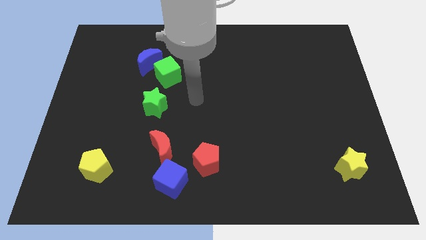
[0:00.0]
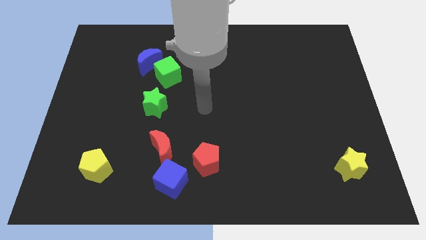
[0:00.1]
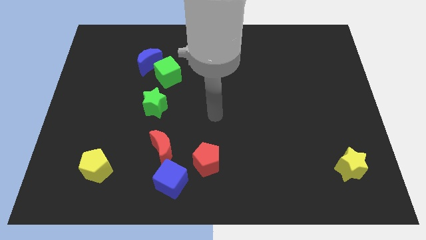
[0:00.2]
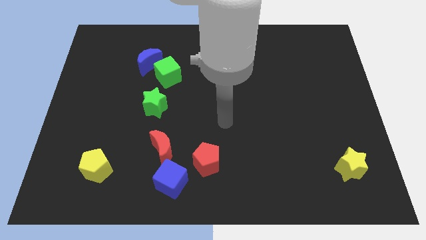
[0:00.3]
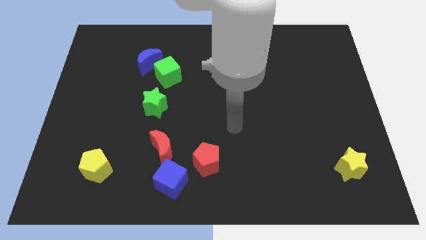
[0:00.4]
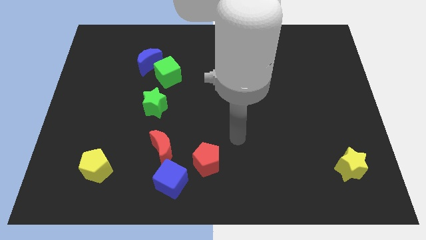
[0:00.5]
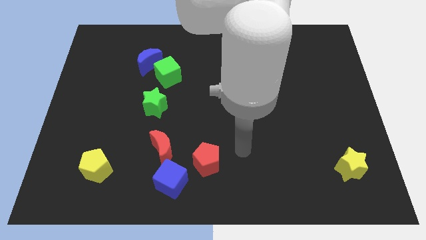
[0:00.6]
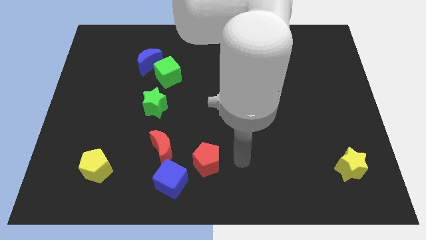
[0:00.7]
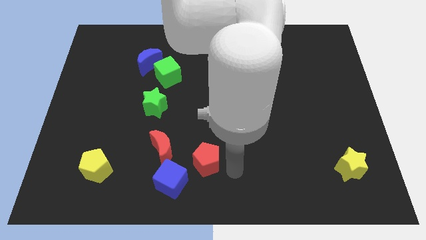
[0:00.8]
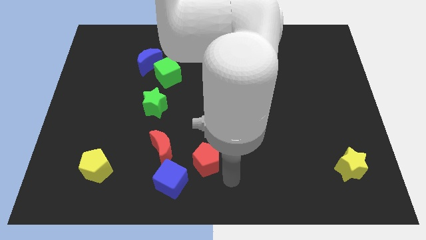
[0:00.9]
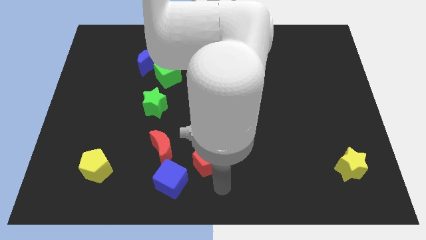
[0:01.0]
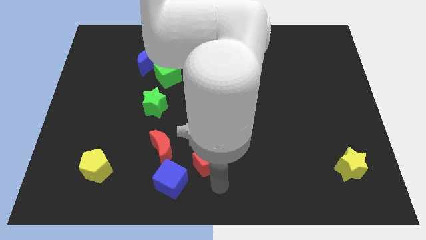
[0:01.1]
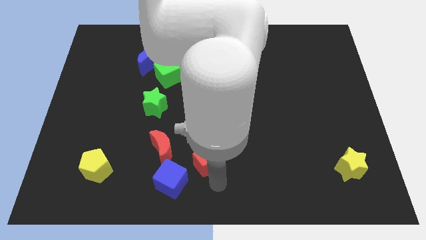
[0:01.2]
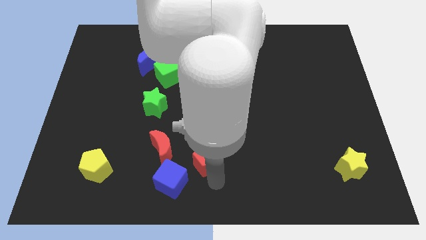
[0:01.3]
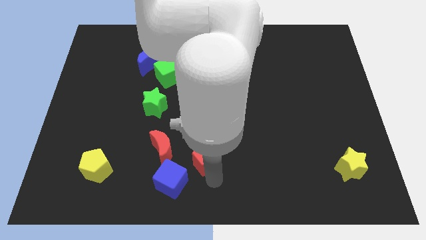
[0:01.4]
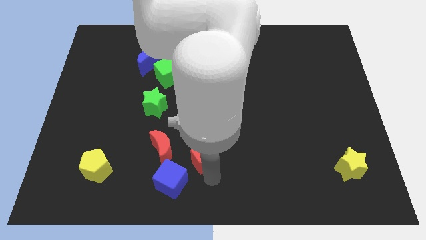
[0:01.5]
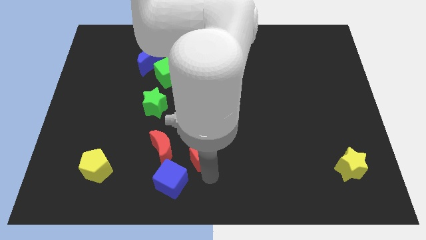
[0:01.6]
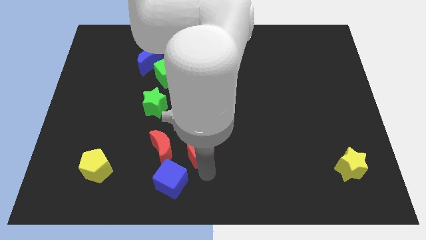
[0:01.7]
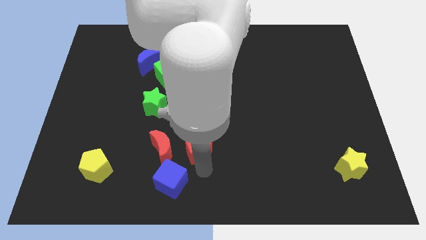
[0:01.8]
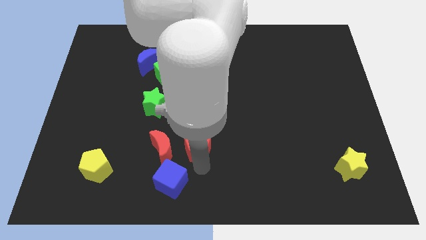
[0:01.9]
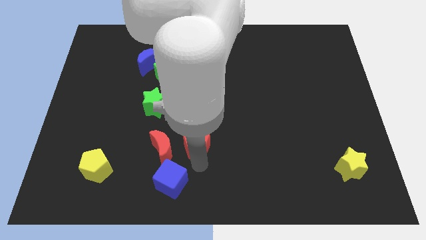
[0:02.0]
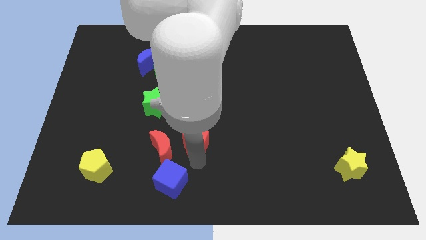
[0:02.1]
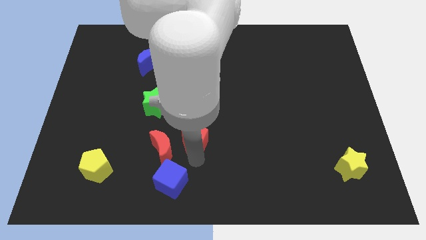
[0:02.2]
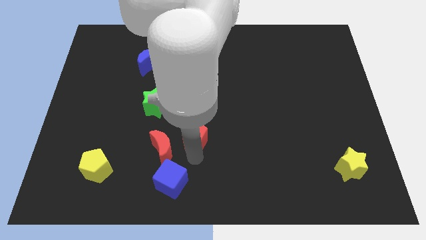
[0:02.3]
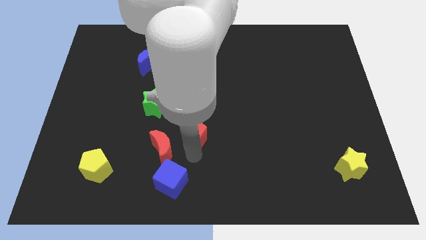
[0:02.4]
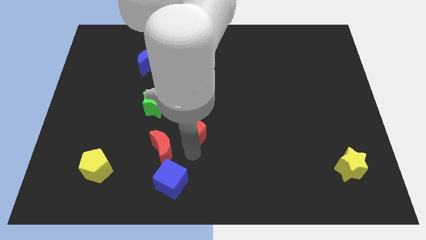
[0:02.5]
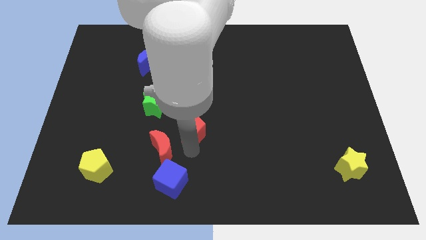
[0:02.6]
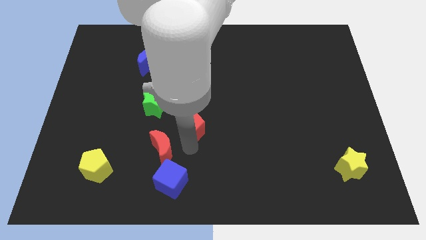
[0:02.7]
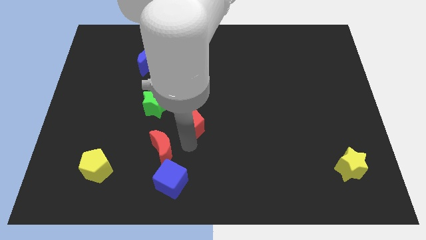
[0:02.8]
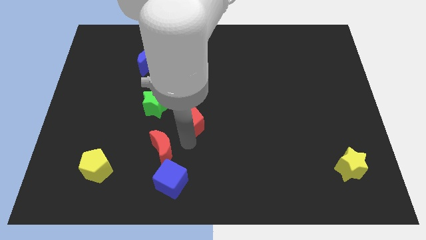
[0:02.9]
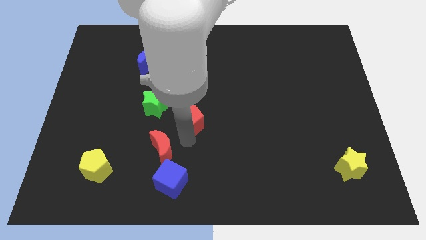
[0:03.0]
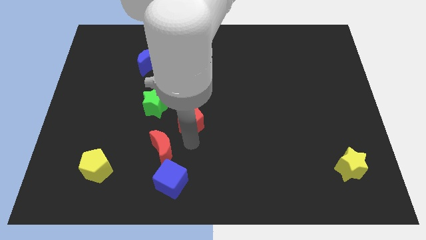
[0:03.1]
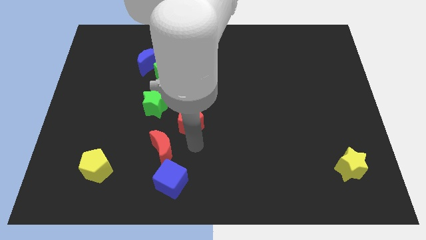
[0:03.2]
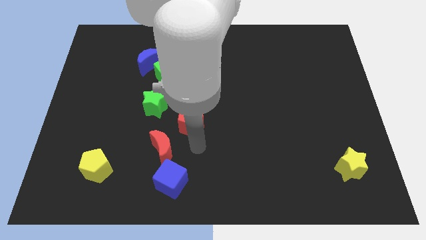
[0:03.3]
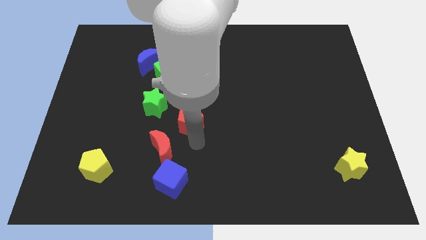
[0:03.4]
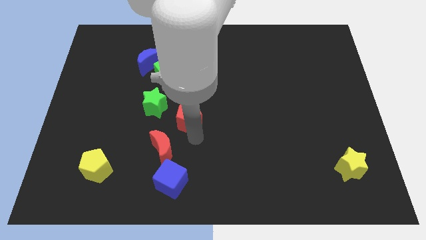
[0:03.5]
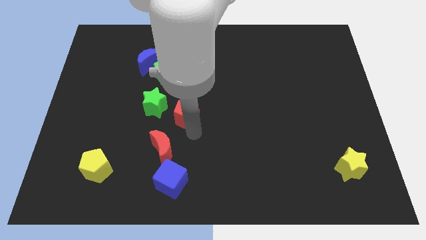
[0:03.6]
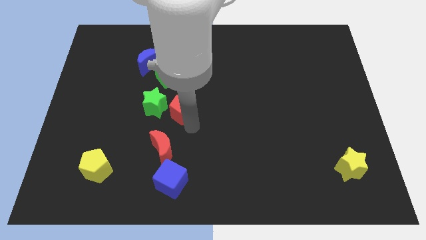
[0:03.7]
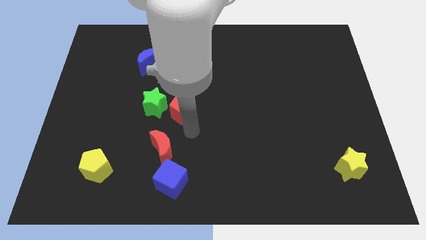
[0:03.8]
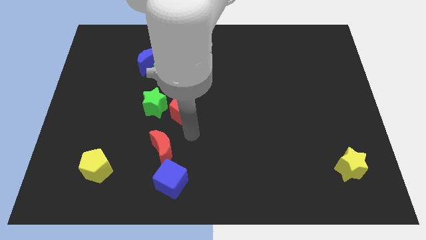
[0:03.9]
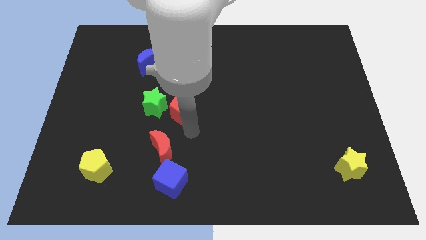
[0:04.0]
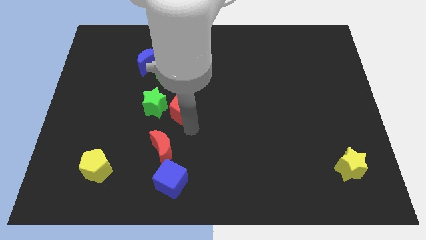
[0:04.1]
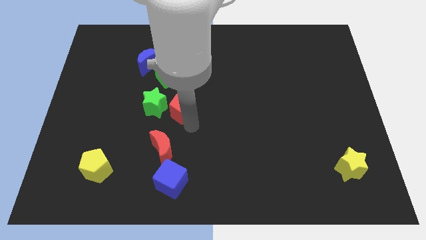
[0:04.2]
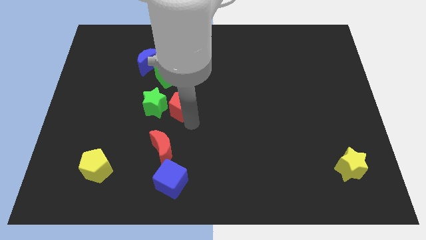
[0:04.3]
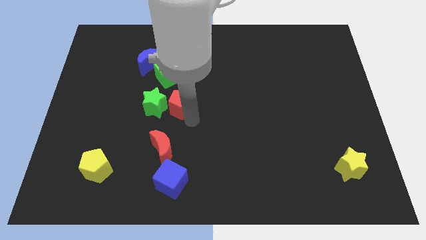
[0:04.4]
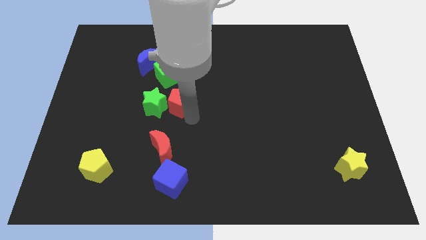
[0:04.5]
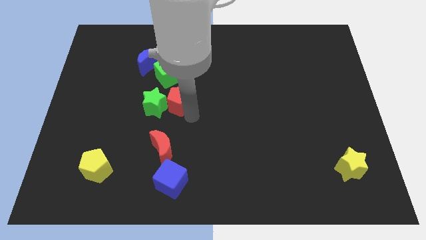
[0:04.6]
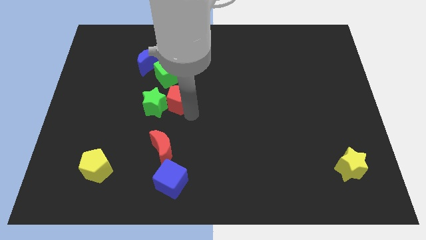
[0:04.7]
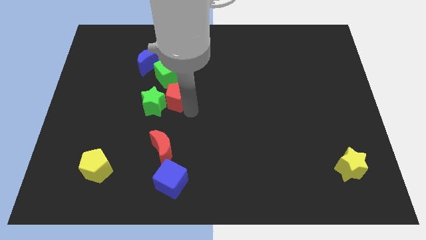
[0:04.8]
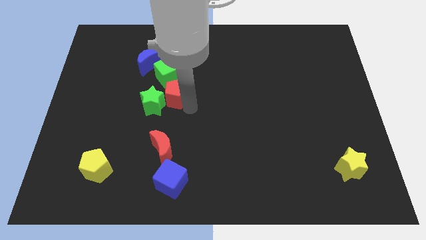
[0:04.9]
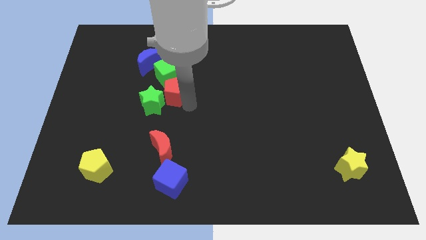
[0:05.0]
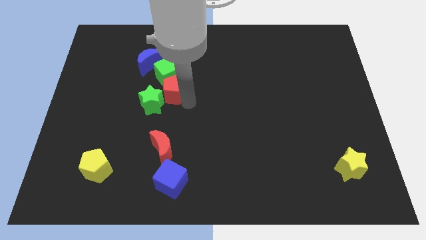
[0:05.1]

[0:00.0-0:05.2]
slide the red pentagon to the green cube

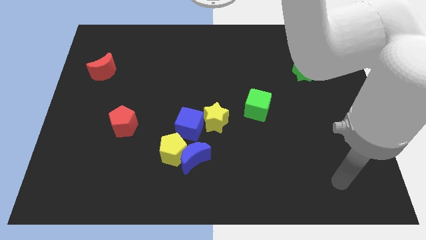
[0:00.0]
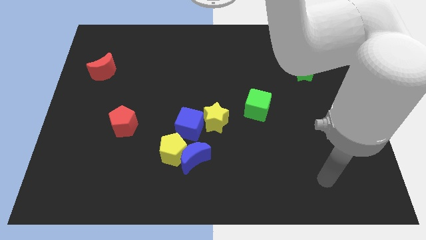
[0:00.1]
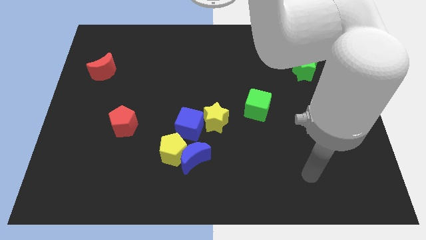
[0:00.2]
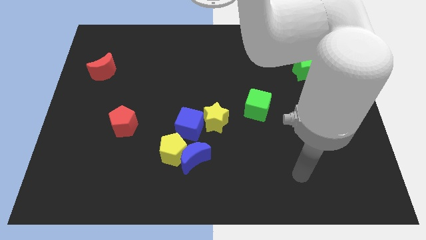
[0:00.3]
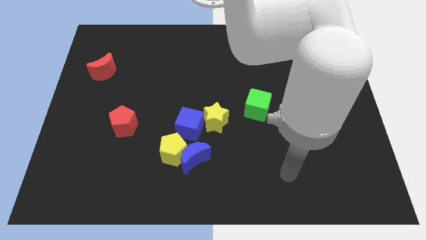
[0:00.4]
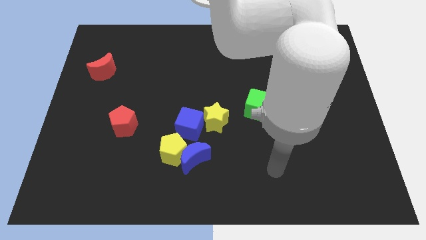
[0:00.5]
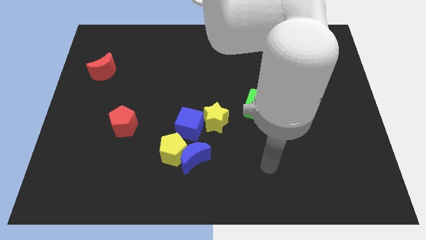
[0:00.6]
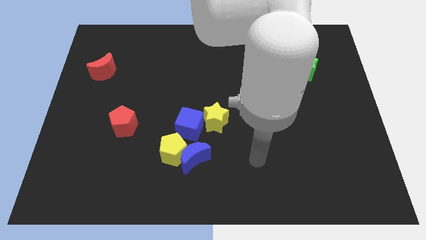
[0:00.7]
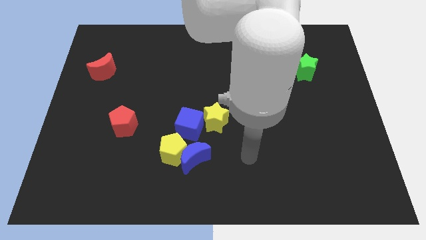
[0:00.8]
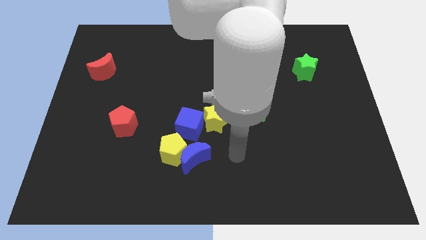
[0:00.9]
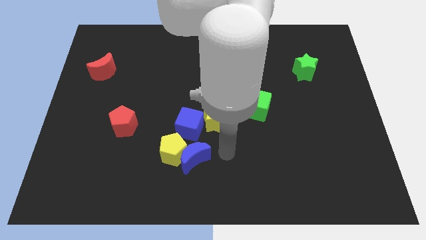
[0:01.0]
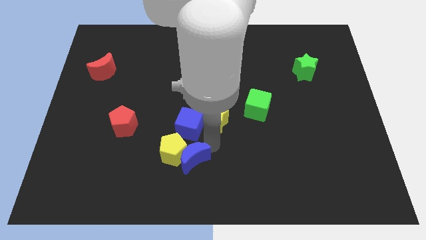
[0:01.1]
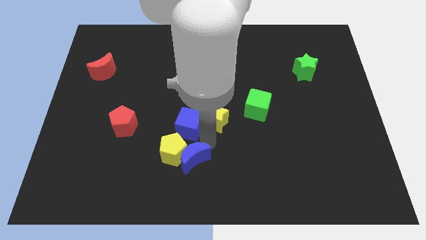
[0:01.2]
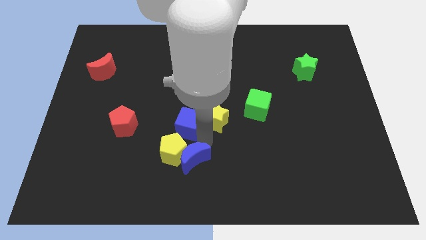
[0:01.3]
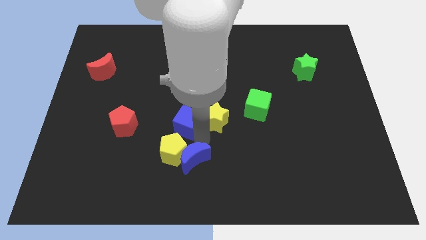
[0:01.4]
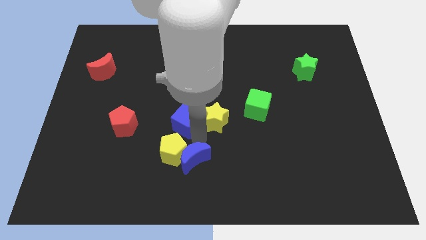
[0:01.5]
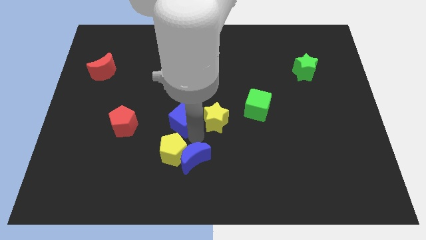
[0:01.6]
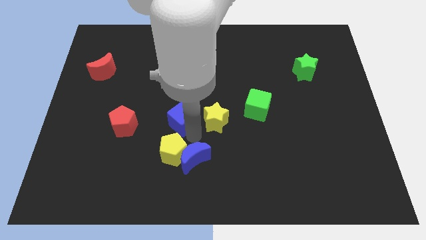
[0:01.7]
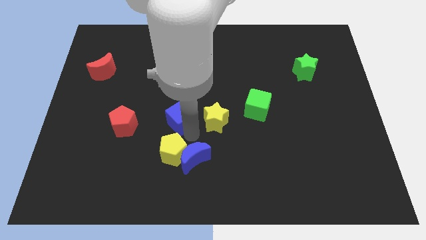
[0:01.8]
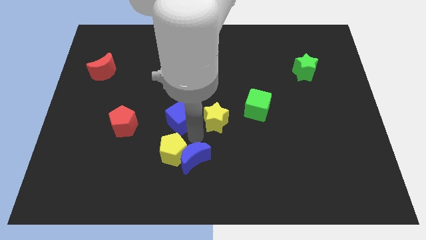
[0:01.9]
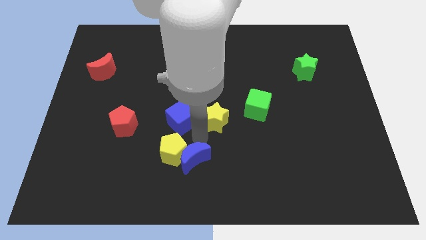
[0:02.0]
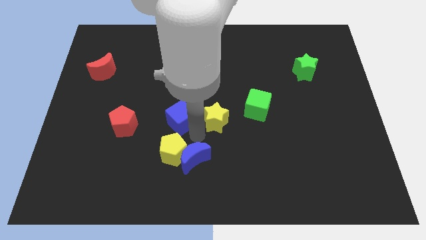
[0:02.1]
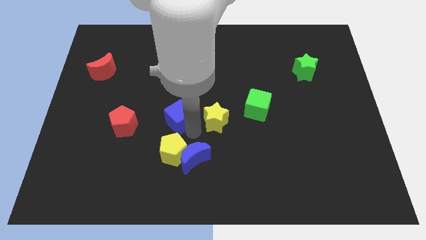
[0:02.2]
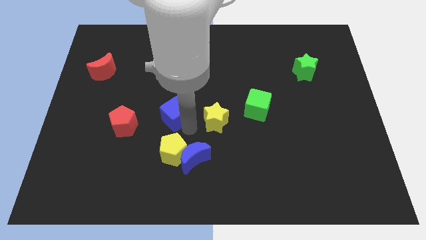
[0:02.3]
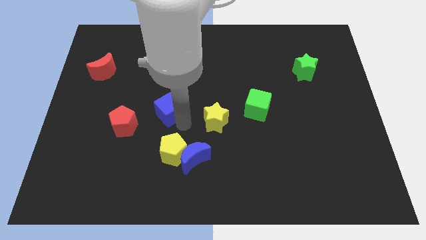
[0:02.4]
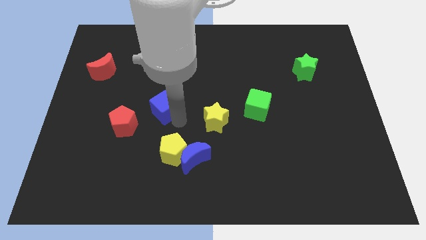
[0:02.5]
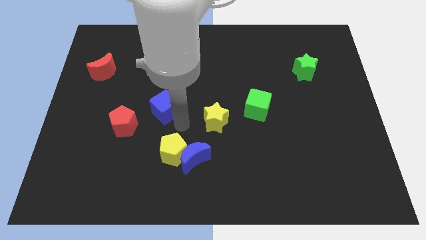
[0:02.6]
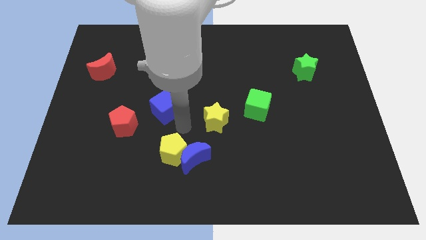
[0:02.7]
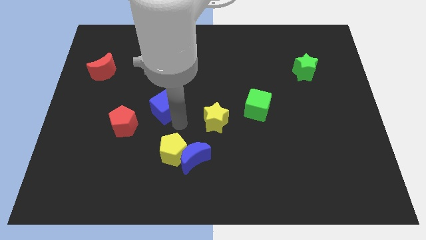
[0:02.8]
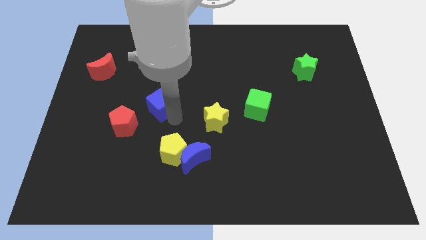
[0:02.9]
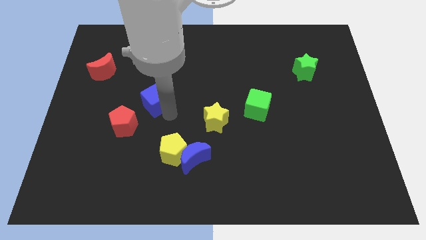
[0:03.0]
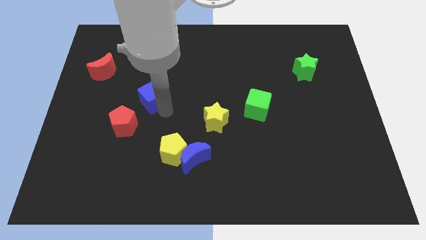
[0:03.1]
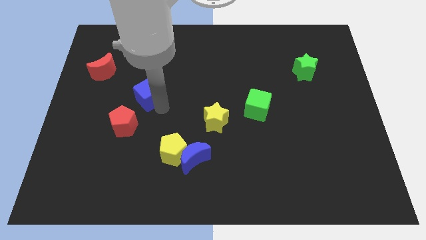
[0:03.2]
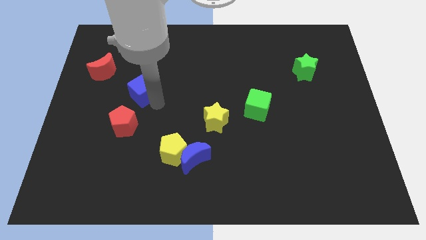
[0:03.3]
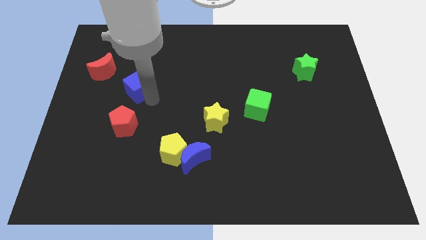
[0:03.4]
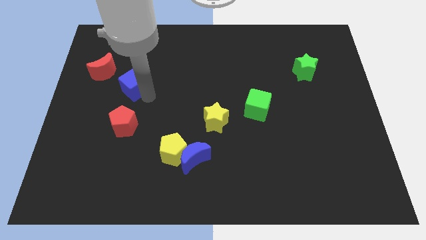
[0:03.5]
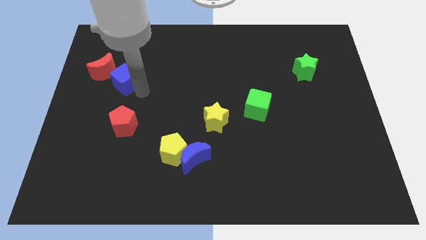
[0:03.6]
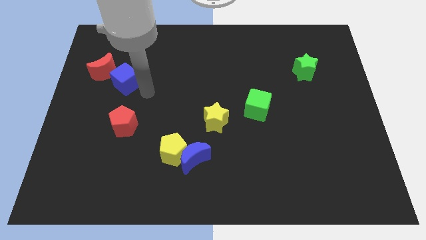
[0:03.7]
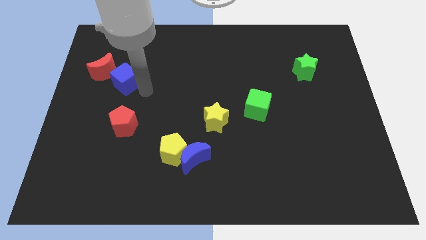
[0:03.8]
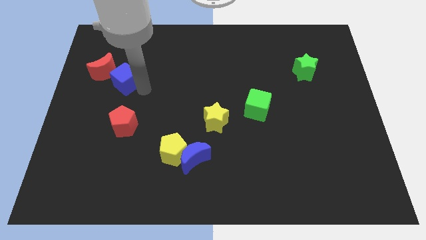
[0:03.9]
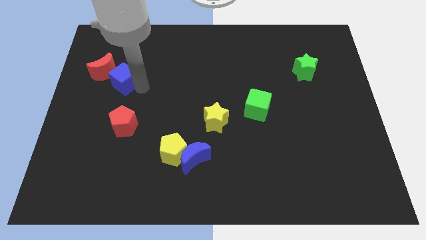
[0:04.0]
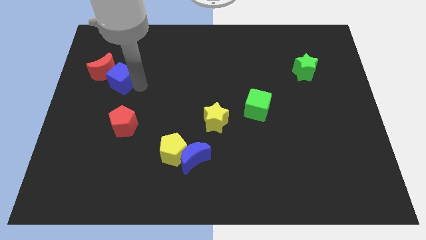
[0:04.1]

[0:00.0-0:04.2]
push the blue cube close to the red moon
